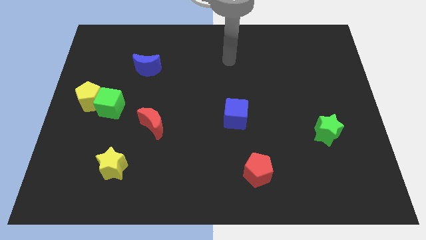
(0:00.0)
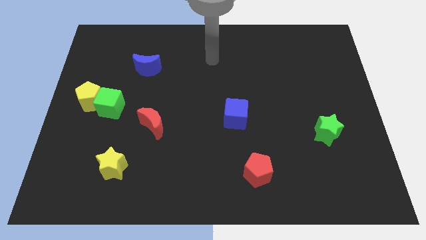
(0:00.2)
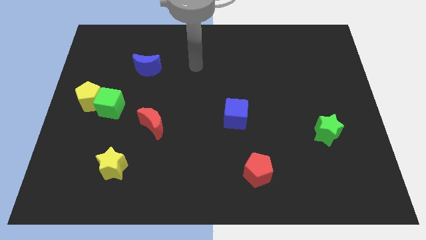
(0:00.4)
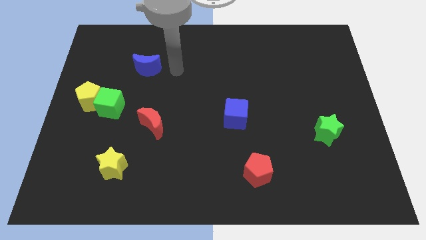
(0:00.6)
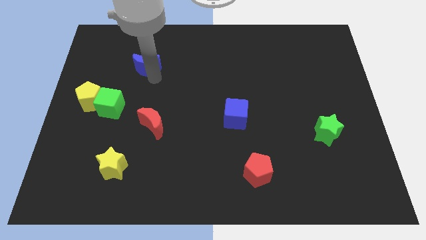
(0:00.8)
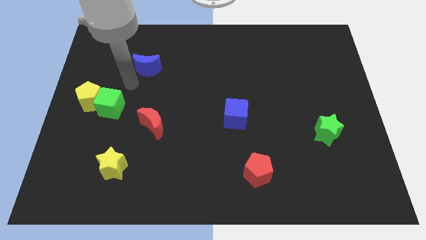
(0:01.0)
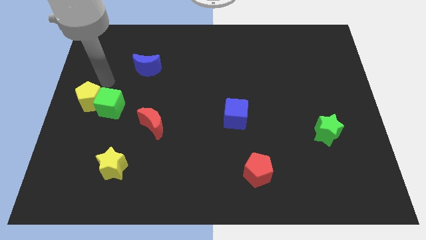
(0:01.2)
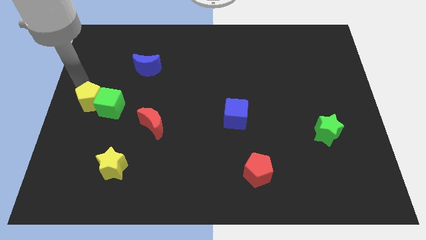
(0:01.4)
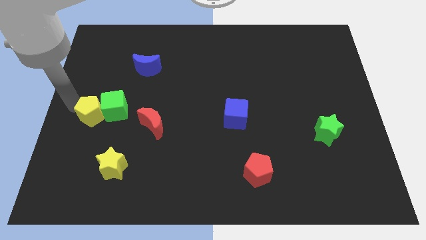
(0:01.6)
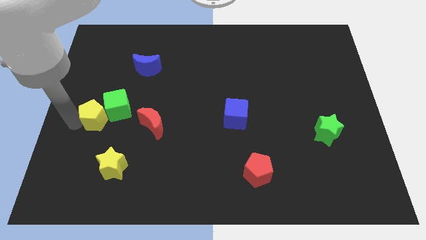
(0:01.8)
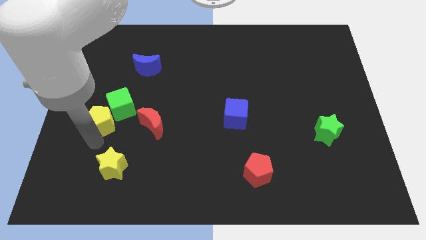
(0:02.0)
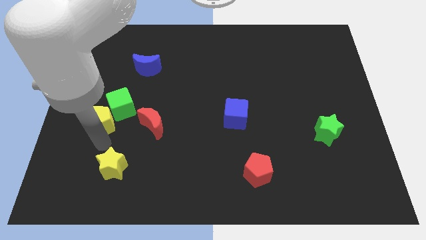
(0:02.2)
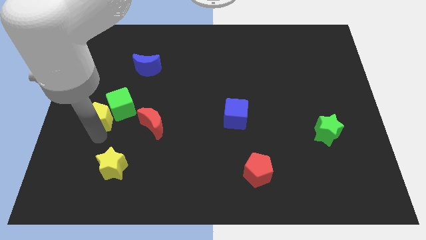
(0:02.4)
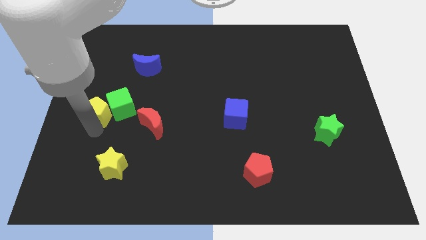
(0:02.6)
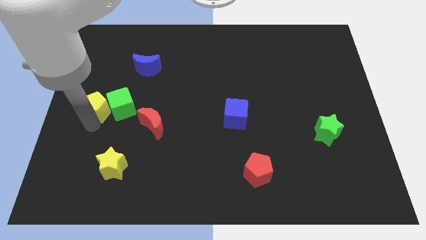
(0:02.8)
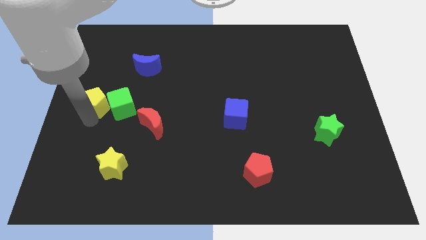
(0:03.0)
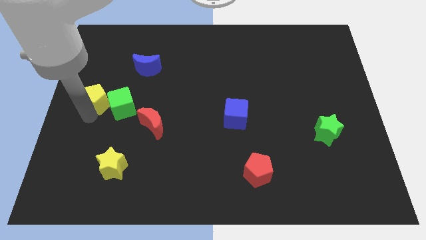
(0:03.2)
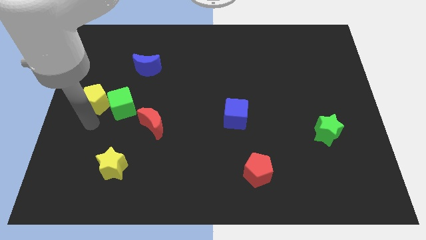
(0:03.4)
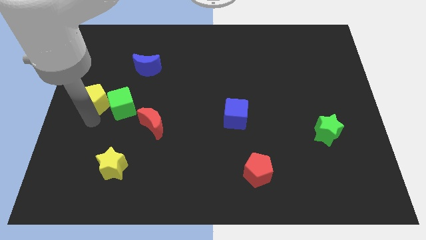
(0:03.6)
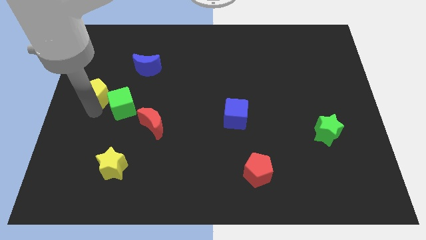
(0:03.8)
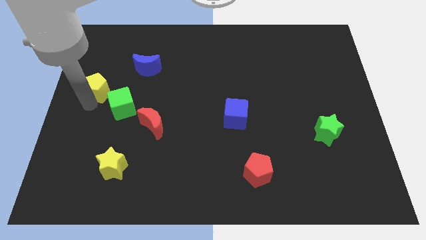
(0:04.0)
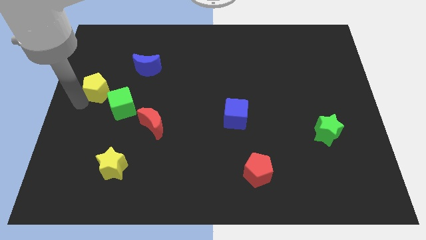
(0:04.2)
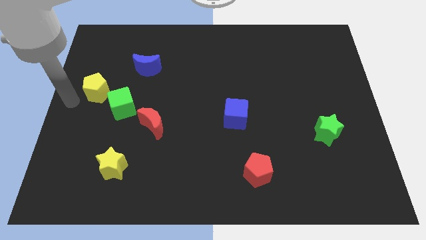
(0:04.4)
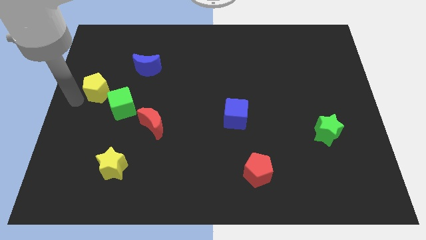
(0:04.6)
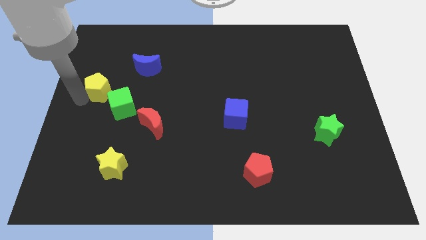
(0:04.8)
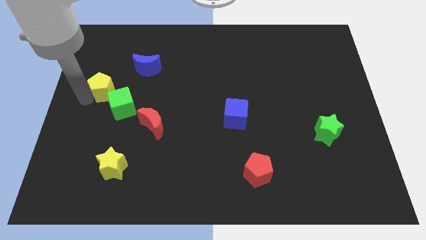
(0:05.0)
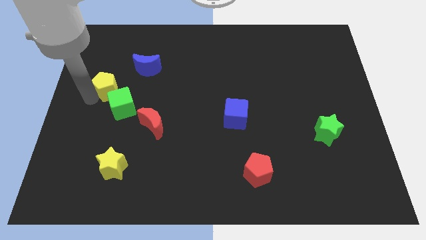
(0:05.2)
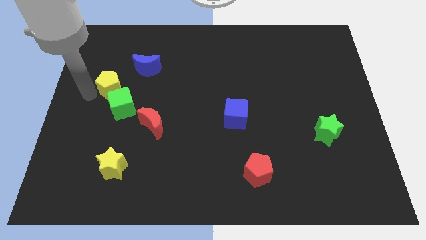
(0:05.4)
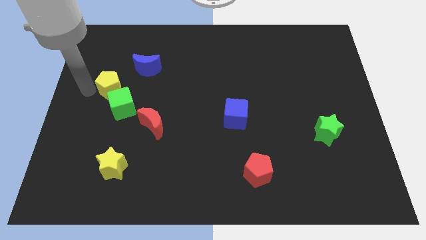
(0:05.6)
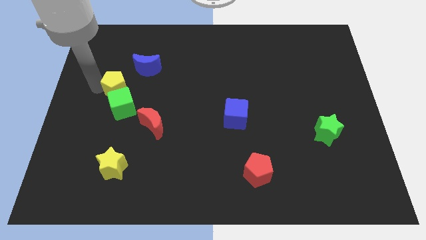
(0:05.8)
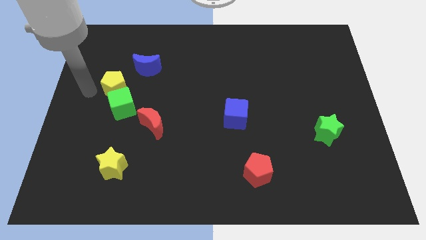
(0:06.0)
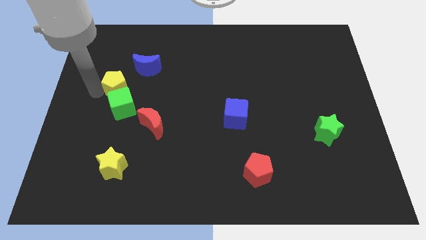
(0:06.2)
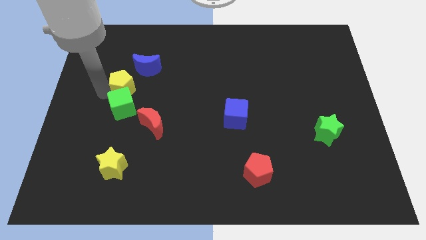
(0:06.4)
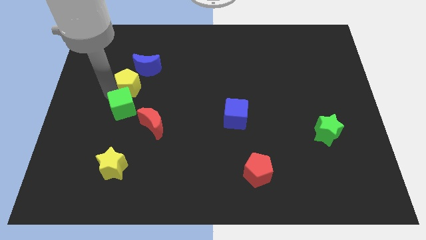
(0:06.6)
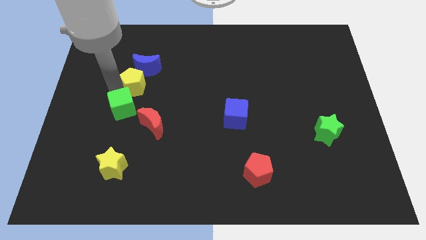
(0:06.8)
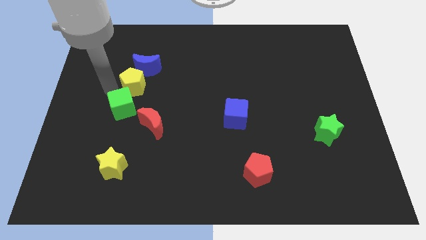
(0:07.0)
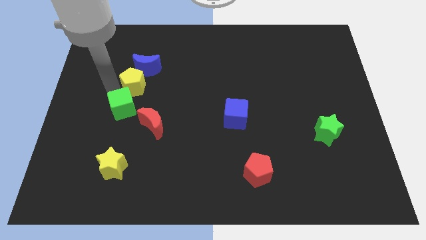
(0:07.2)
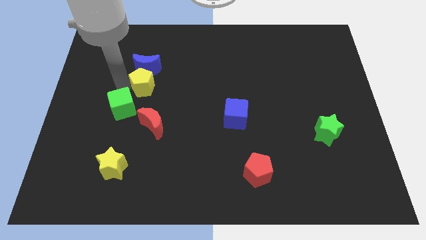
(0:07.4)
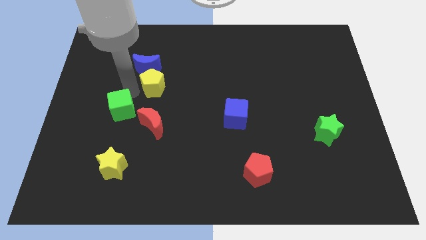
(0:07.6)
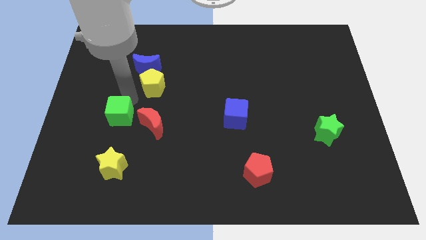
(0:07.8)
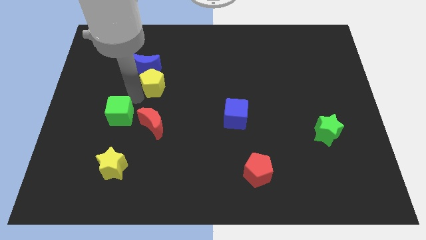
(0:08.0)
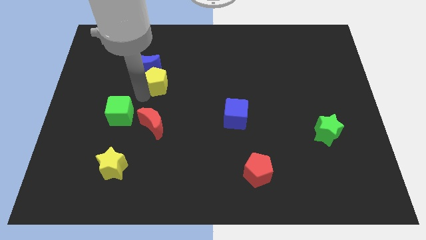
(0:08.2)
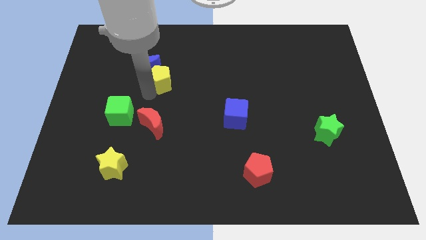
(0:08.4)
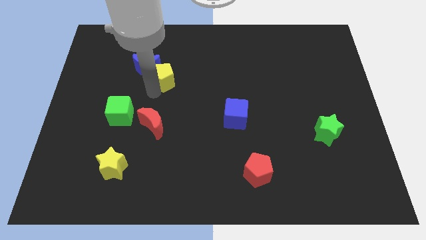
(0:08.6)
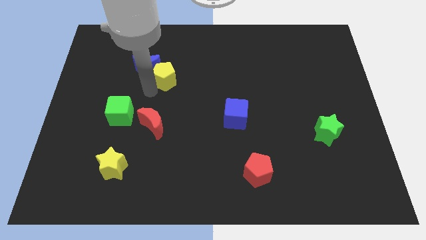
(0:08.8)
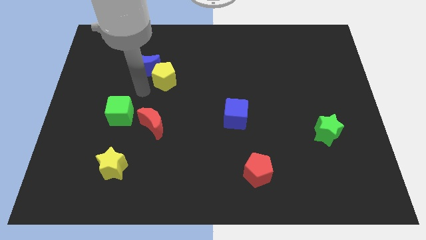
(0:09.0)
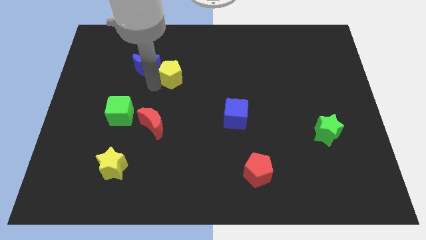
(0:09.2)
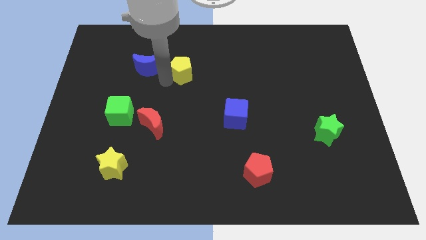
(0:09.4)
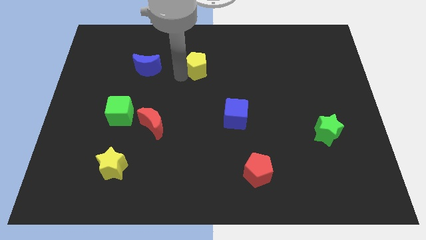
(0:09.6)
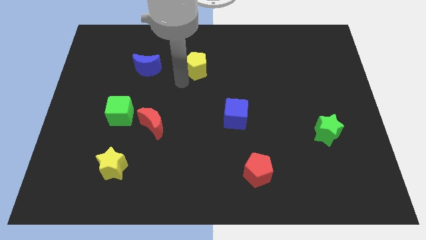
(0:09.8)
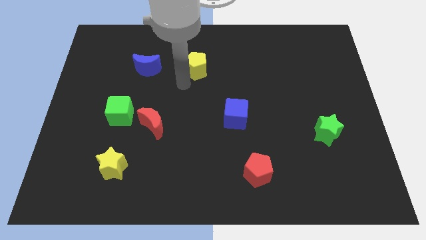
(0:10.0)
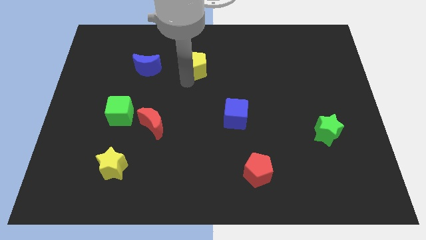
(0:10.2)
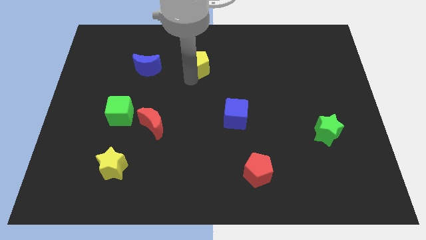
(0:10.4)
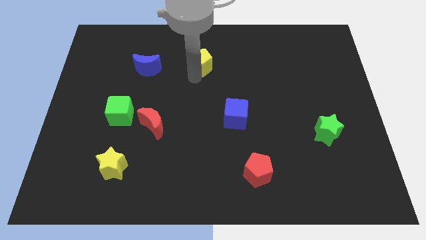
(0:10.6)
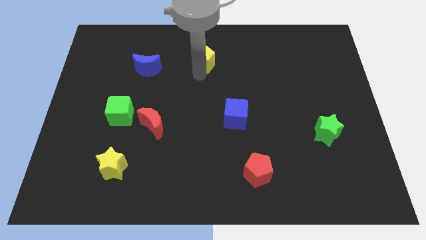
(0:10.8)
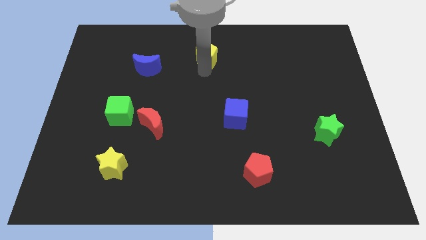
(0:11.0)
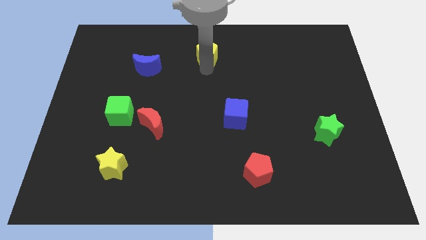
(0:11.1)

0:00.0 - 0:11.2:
move the yellow pentagon to the towards your base

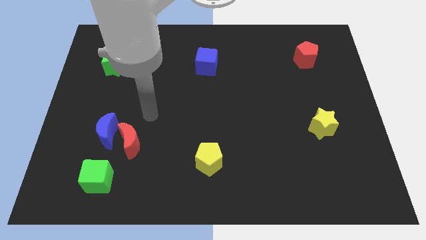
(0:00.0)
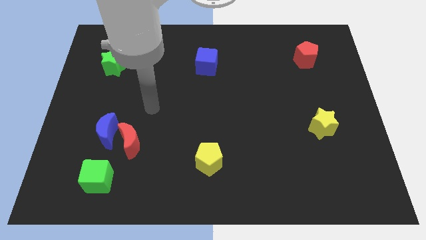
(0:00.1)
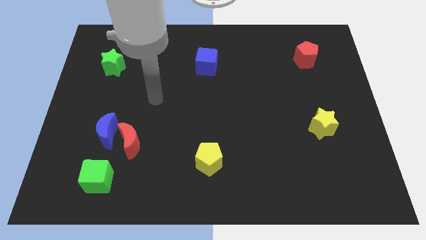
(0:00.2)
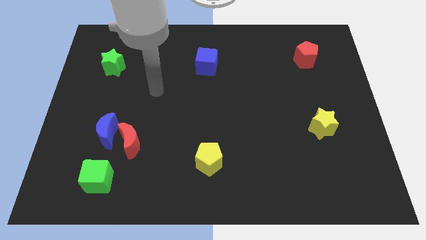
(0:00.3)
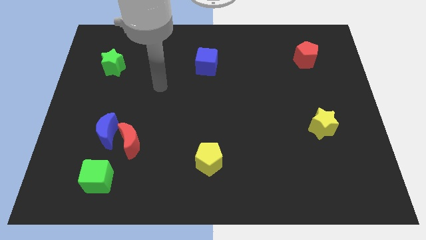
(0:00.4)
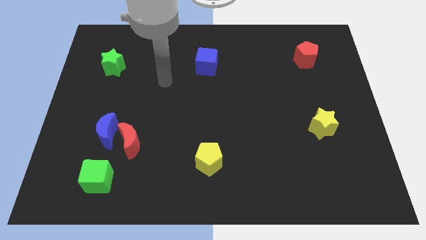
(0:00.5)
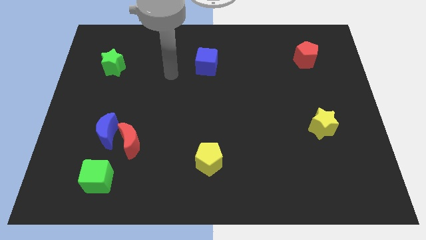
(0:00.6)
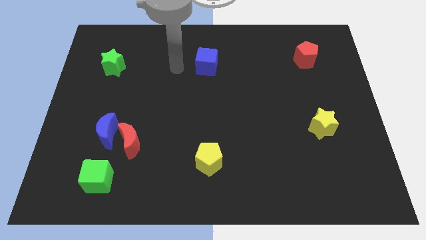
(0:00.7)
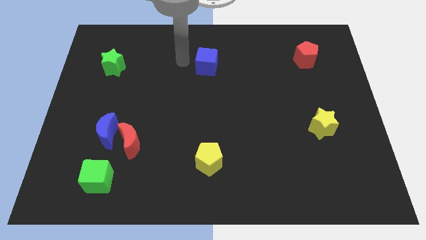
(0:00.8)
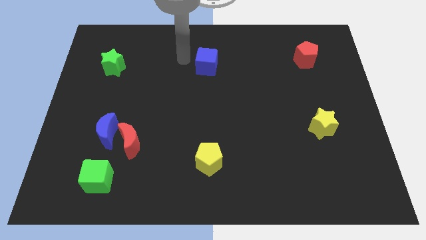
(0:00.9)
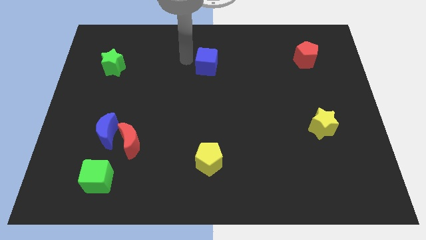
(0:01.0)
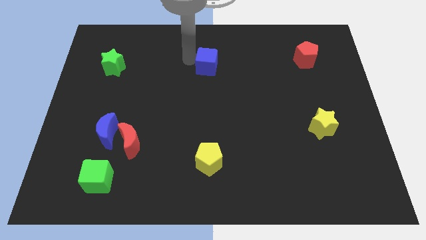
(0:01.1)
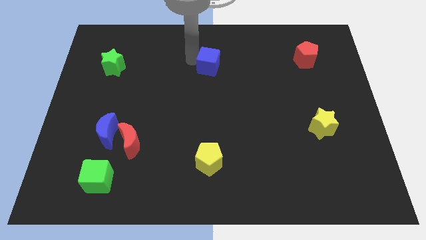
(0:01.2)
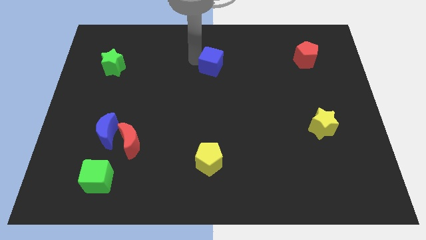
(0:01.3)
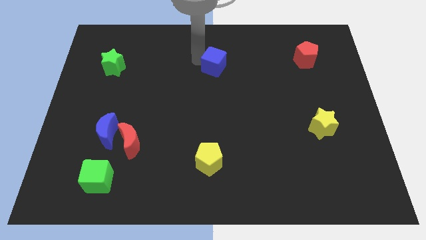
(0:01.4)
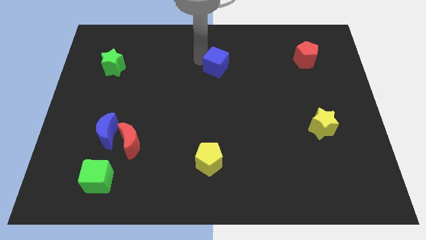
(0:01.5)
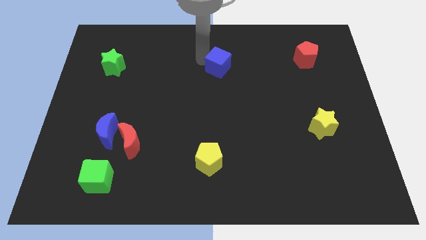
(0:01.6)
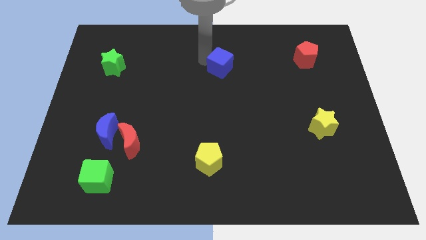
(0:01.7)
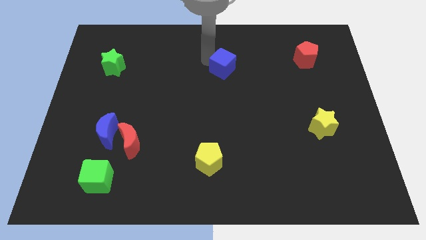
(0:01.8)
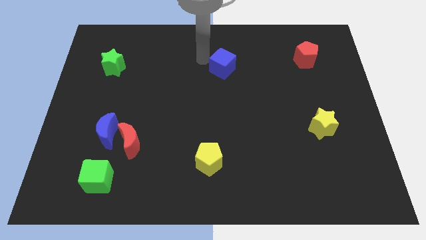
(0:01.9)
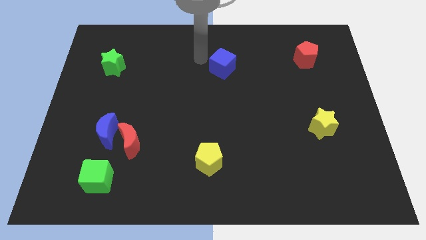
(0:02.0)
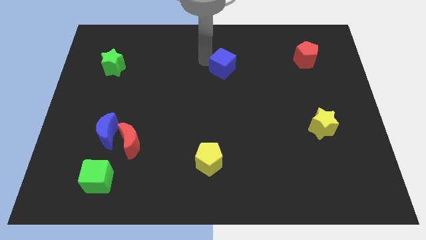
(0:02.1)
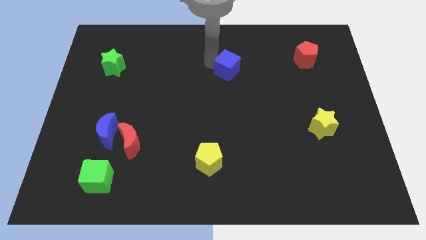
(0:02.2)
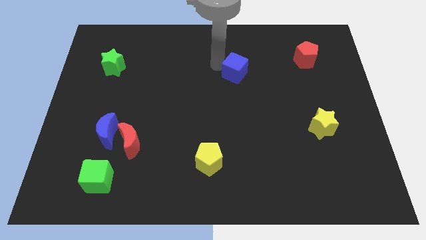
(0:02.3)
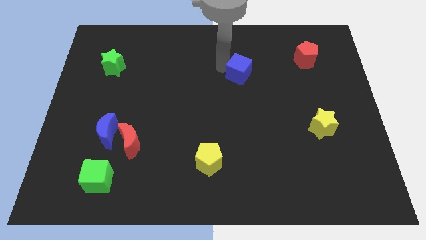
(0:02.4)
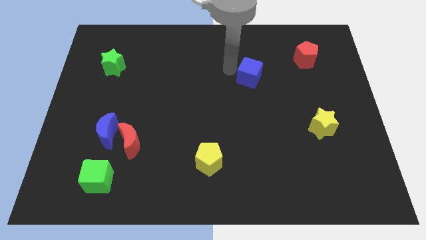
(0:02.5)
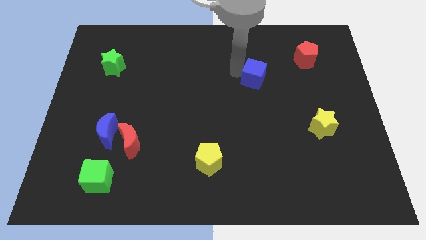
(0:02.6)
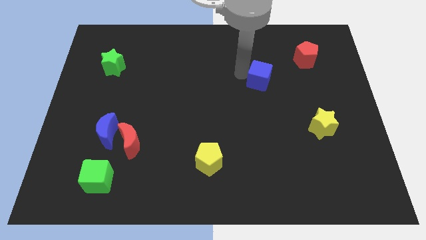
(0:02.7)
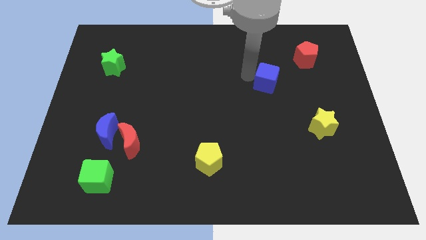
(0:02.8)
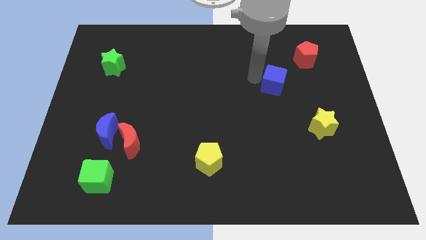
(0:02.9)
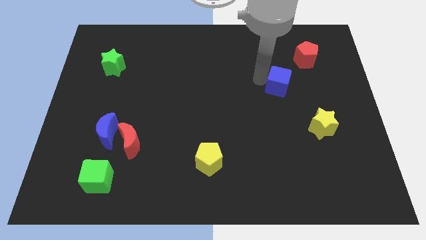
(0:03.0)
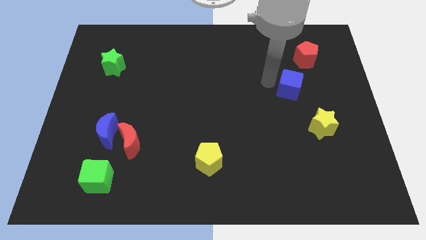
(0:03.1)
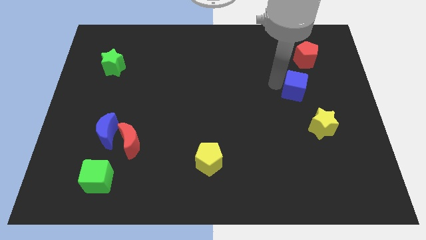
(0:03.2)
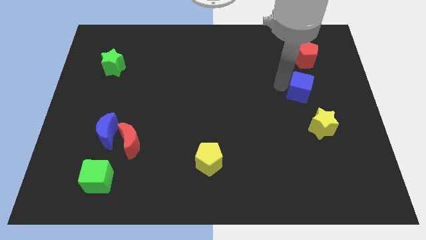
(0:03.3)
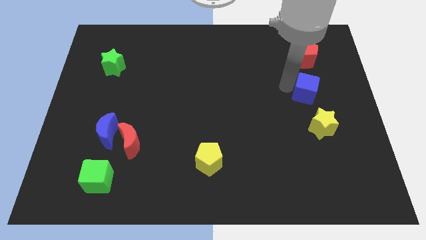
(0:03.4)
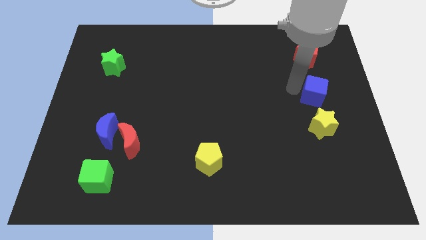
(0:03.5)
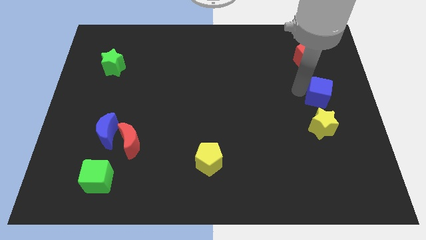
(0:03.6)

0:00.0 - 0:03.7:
move the blue cube to the right side
